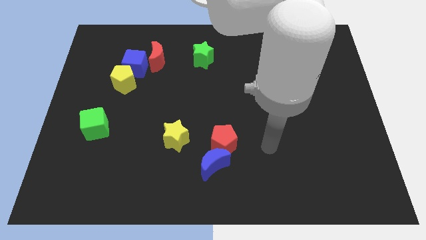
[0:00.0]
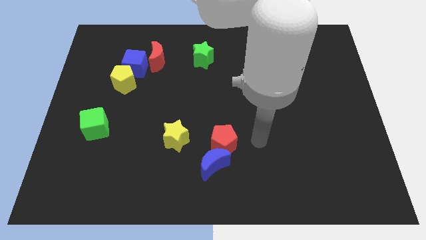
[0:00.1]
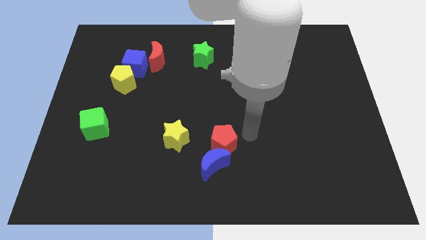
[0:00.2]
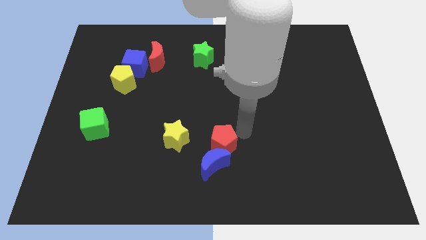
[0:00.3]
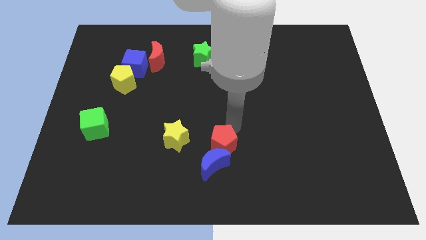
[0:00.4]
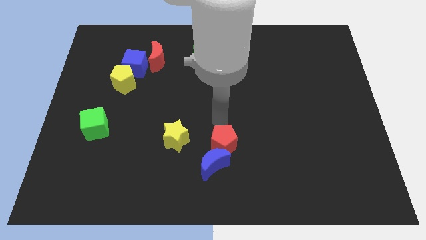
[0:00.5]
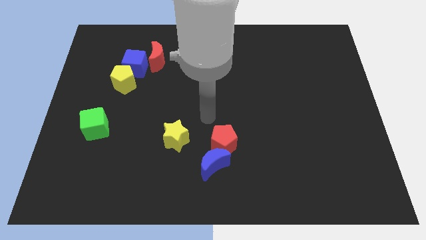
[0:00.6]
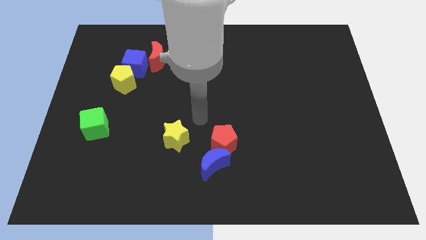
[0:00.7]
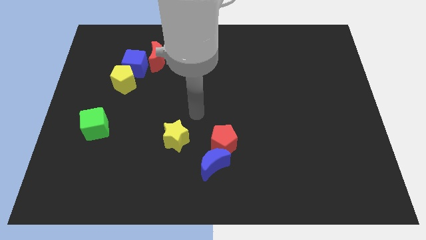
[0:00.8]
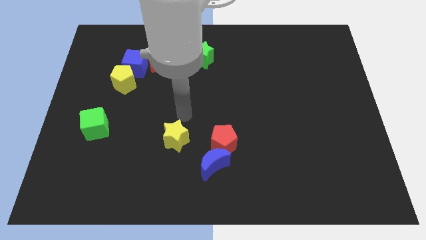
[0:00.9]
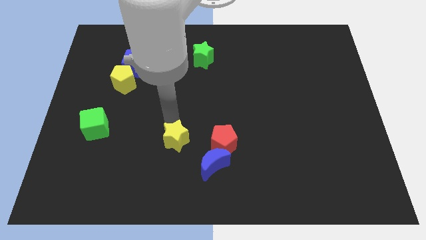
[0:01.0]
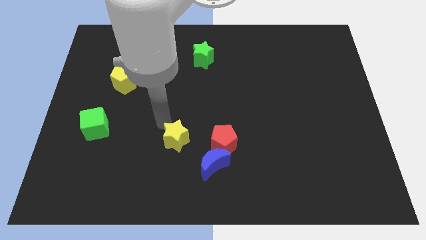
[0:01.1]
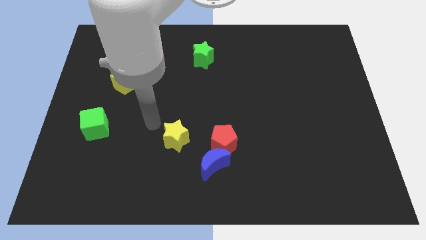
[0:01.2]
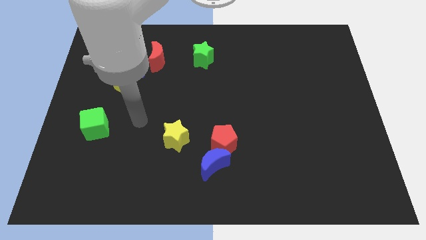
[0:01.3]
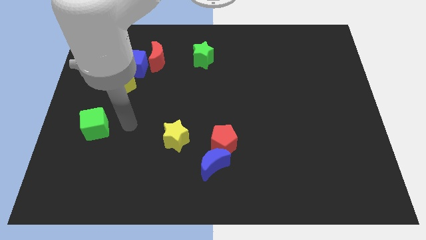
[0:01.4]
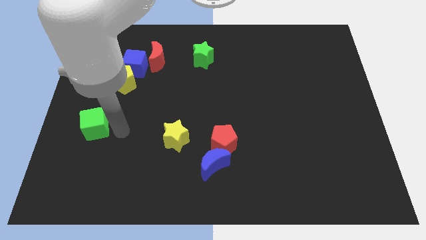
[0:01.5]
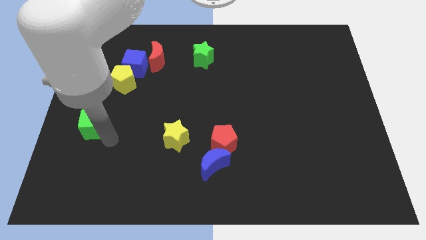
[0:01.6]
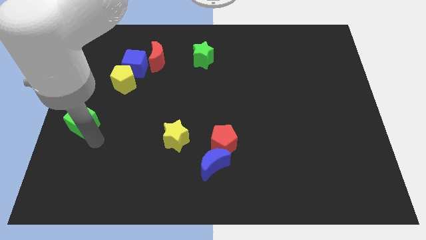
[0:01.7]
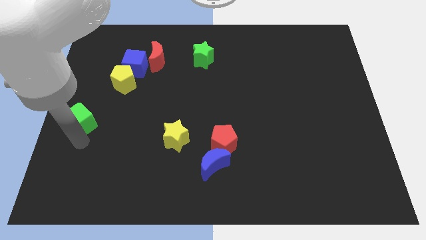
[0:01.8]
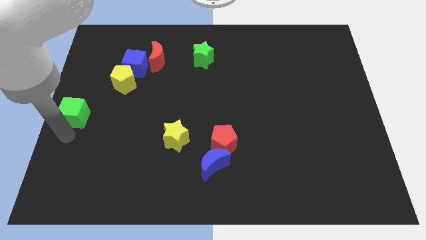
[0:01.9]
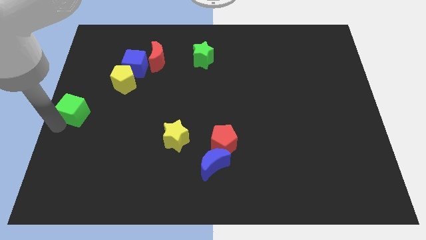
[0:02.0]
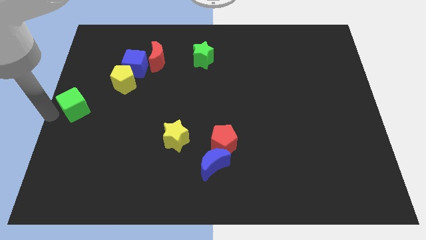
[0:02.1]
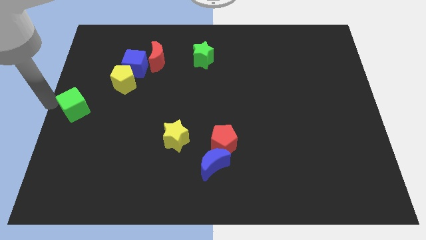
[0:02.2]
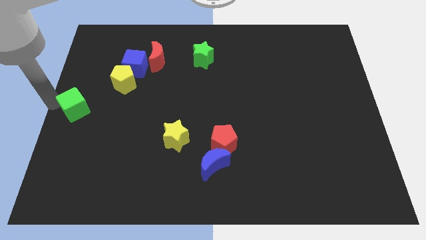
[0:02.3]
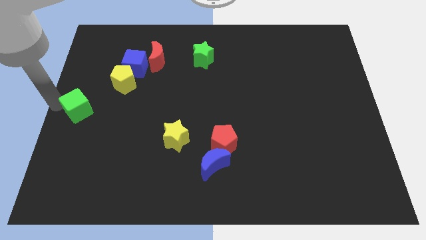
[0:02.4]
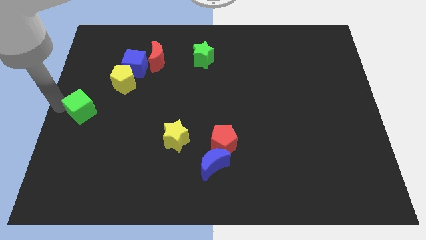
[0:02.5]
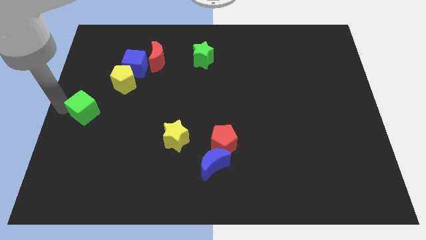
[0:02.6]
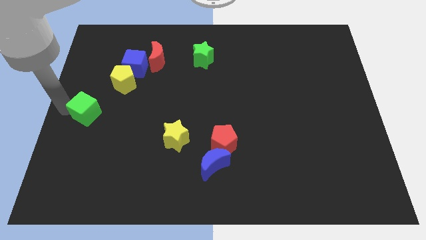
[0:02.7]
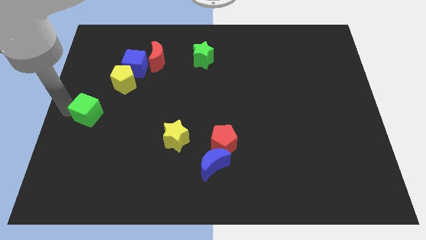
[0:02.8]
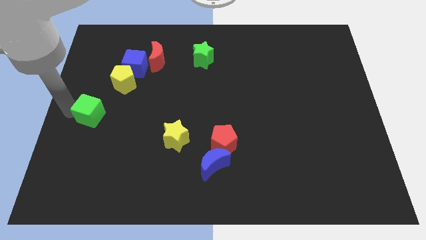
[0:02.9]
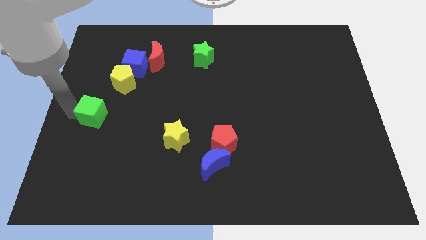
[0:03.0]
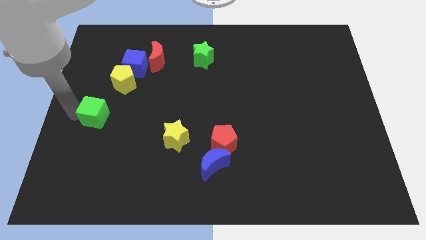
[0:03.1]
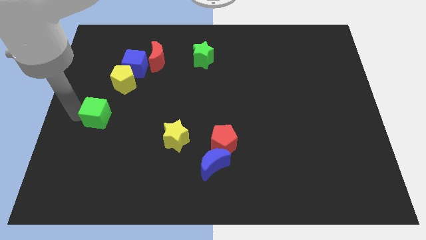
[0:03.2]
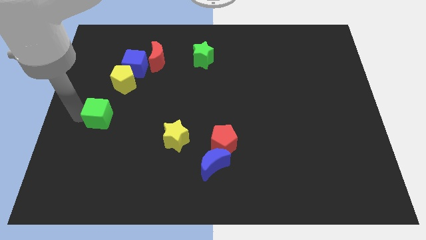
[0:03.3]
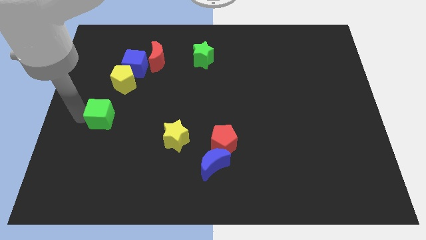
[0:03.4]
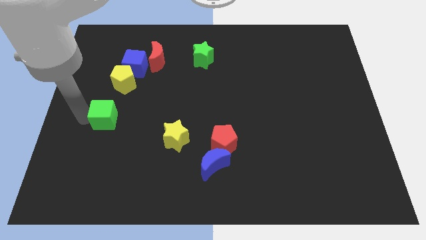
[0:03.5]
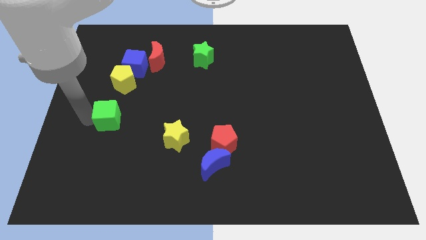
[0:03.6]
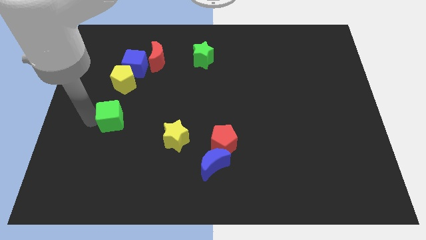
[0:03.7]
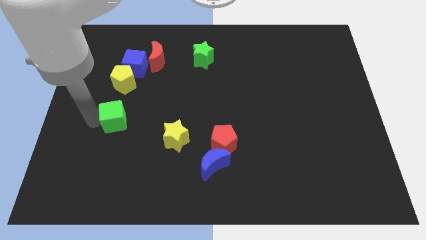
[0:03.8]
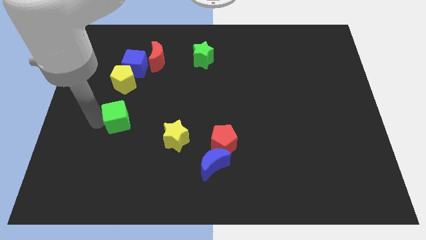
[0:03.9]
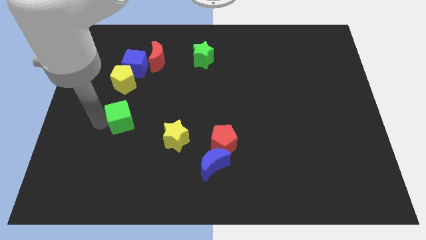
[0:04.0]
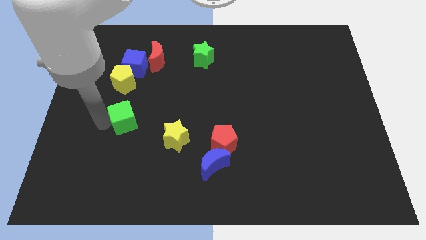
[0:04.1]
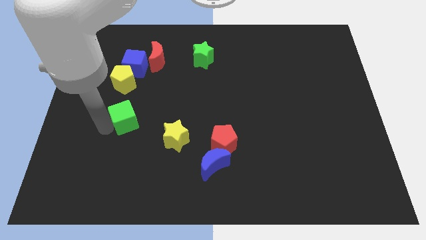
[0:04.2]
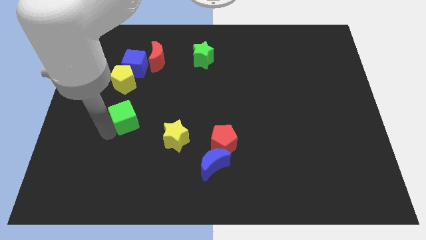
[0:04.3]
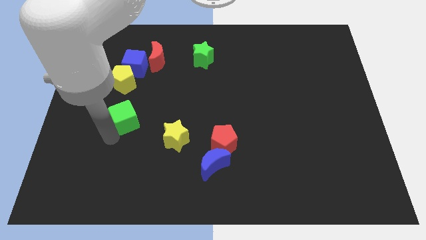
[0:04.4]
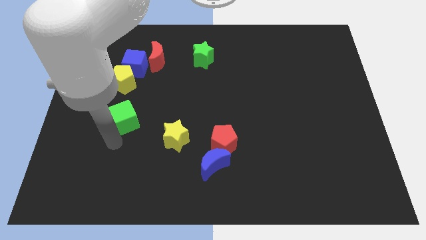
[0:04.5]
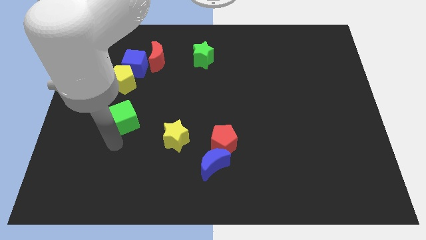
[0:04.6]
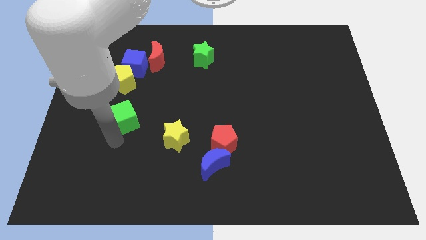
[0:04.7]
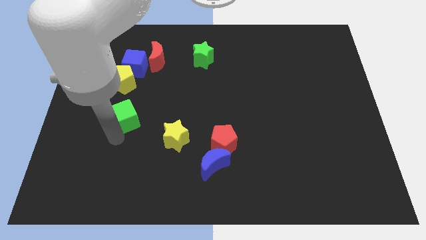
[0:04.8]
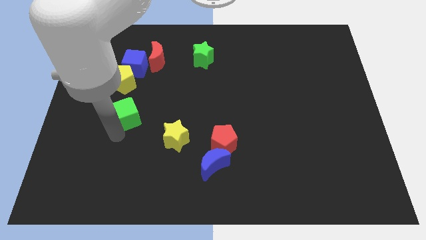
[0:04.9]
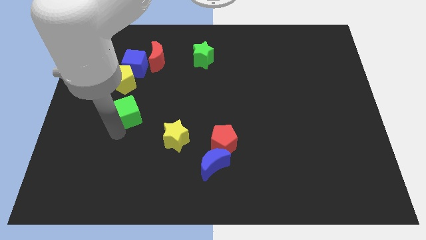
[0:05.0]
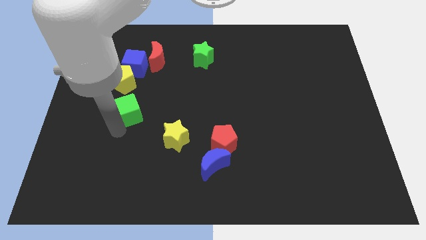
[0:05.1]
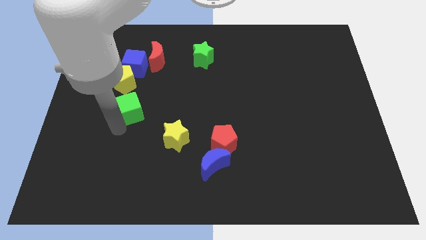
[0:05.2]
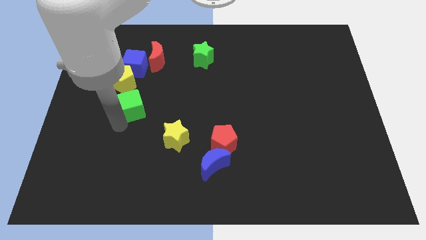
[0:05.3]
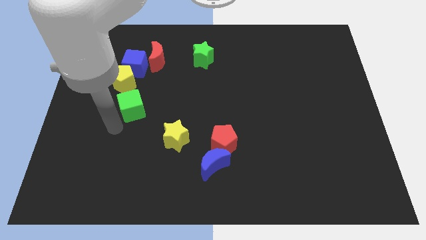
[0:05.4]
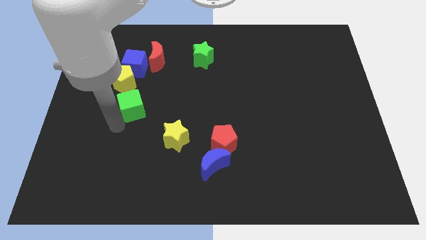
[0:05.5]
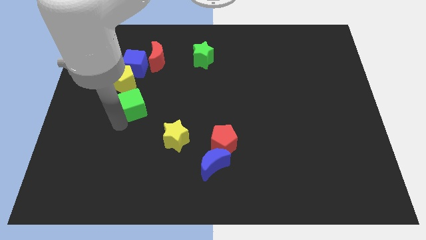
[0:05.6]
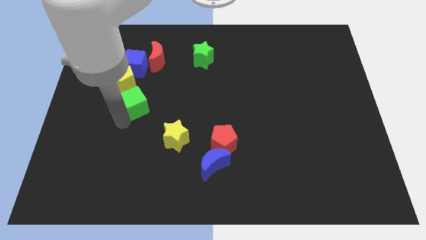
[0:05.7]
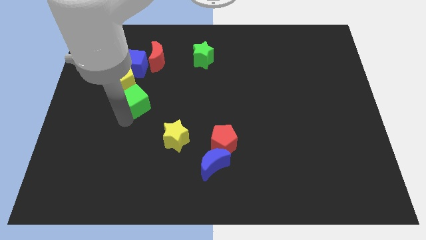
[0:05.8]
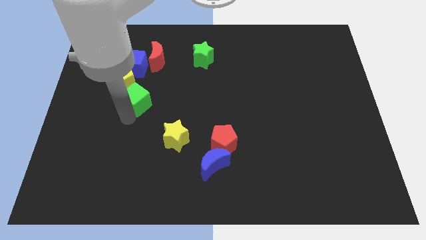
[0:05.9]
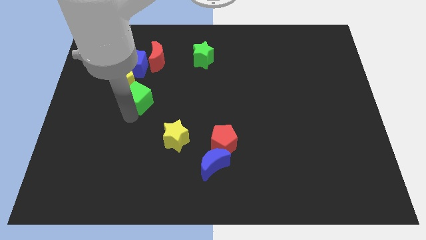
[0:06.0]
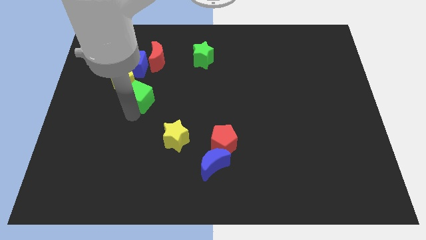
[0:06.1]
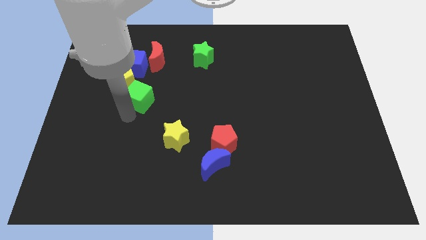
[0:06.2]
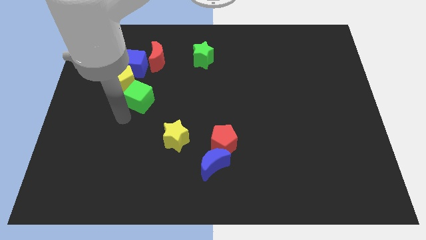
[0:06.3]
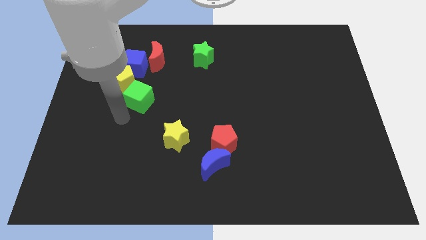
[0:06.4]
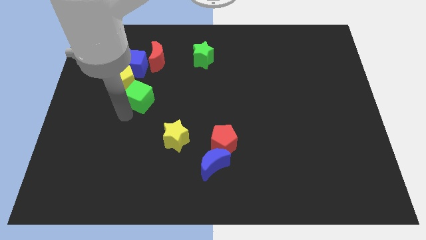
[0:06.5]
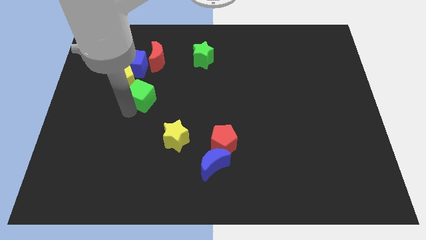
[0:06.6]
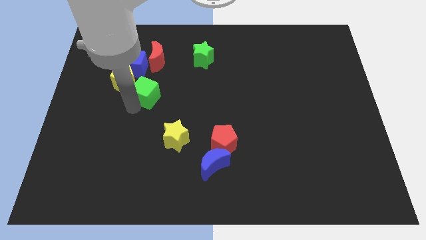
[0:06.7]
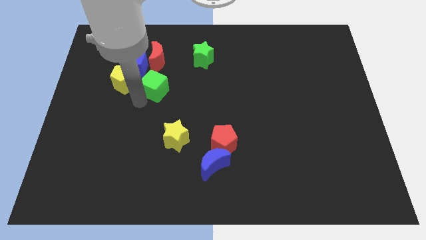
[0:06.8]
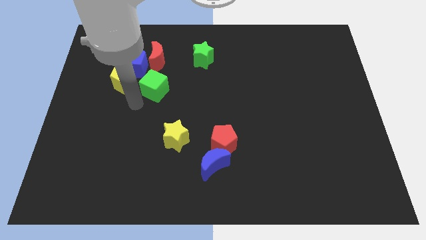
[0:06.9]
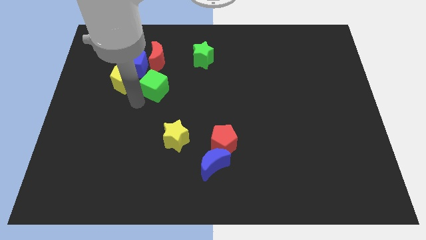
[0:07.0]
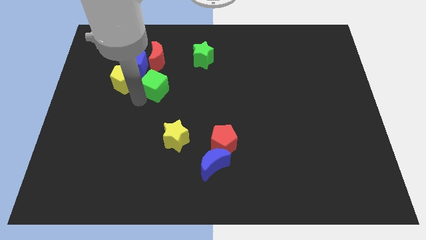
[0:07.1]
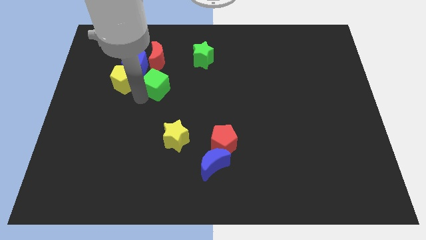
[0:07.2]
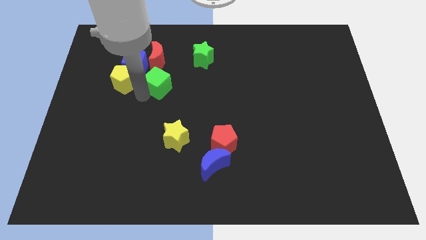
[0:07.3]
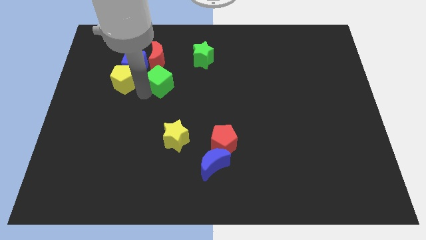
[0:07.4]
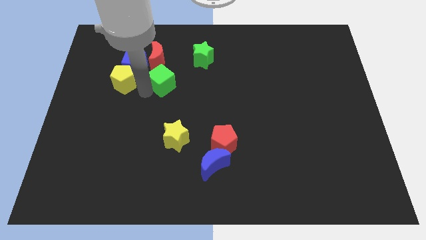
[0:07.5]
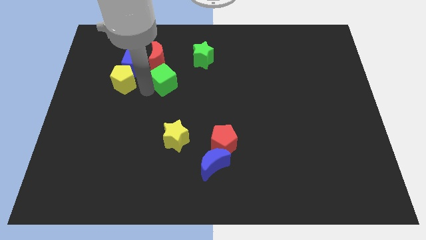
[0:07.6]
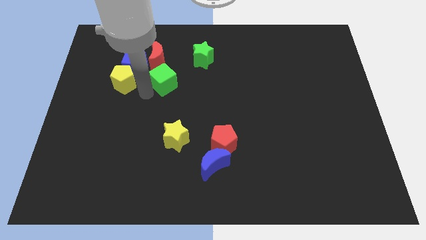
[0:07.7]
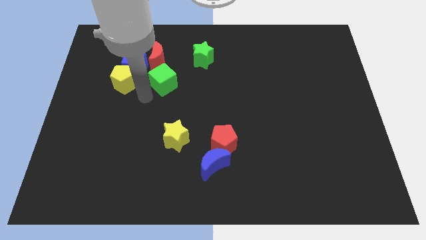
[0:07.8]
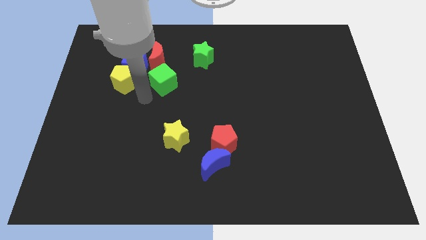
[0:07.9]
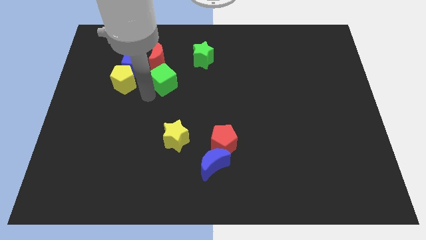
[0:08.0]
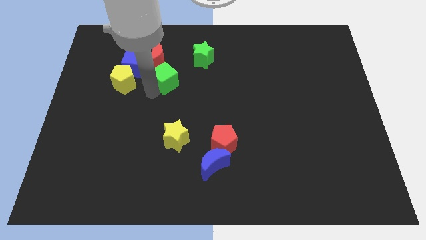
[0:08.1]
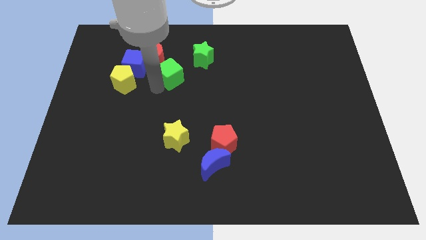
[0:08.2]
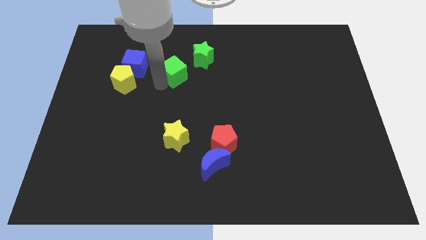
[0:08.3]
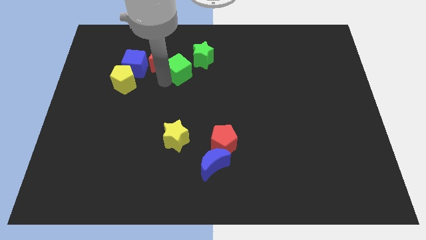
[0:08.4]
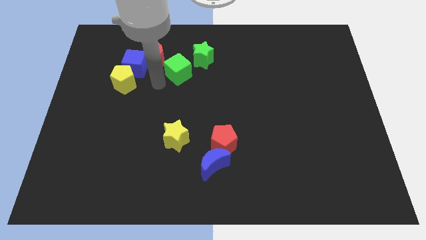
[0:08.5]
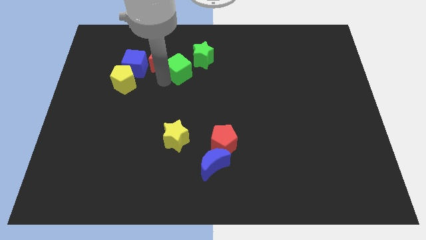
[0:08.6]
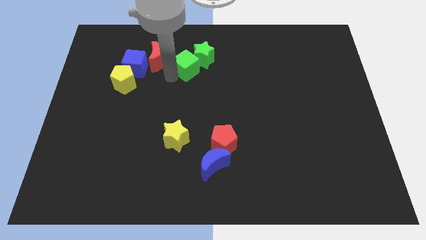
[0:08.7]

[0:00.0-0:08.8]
push the green cube towards the green star
